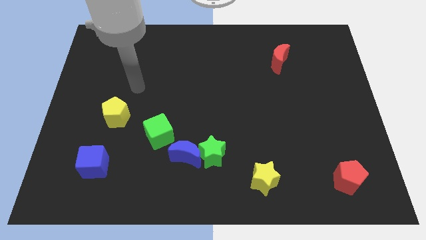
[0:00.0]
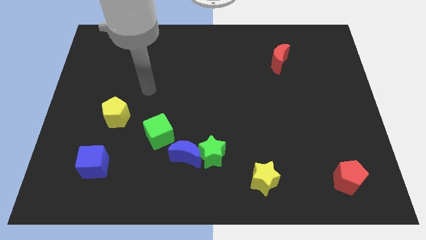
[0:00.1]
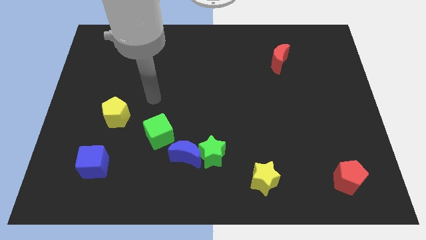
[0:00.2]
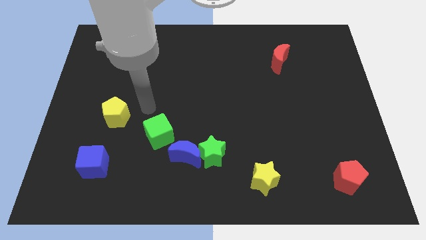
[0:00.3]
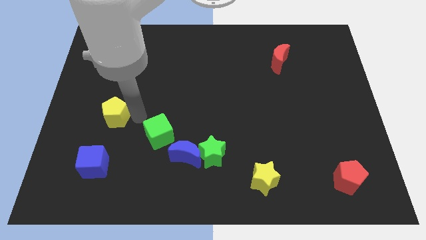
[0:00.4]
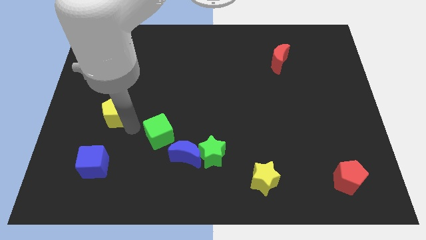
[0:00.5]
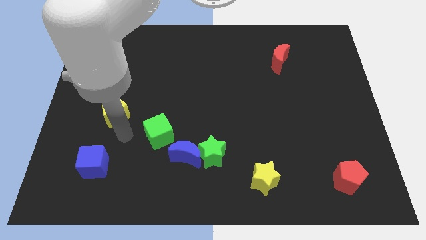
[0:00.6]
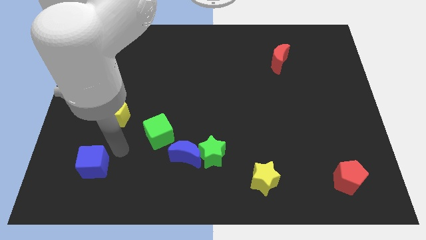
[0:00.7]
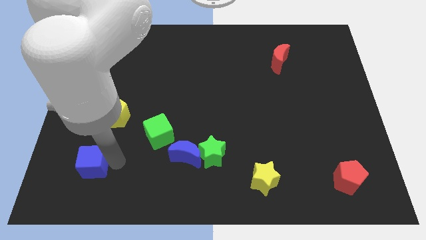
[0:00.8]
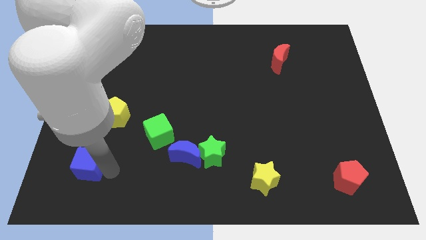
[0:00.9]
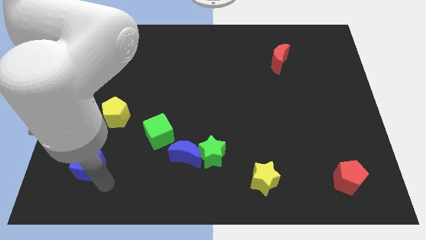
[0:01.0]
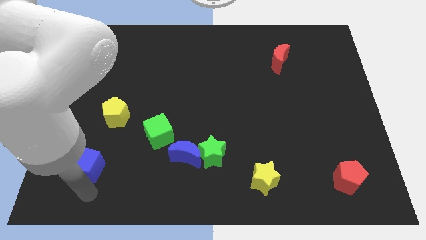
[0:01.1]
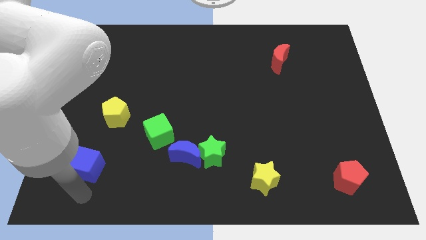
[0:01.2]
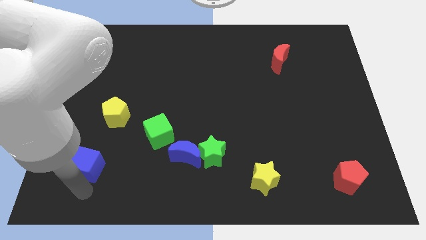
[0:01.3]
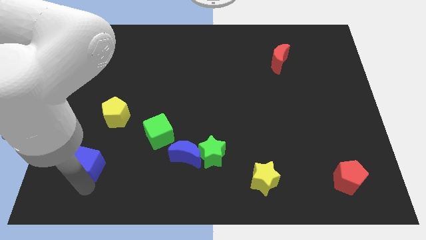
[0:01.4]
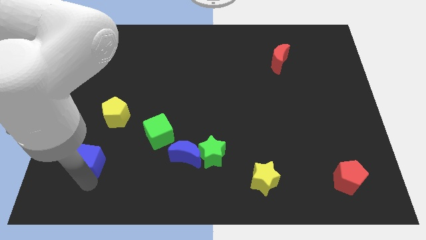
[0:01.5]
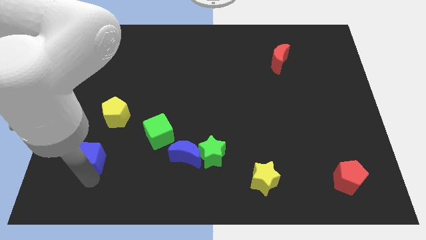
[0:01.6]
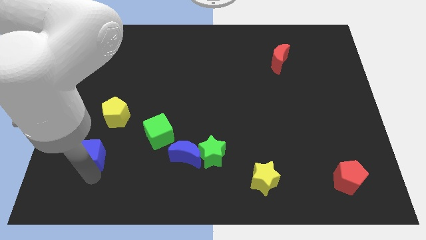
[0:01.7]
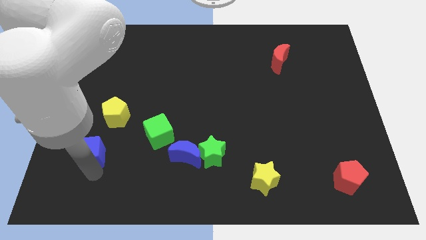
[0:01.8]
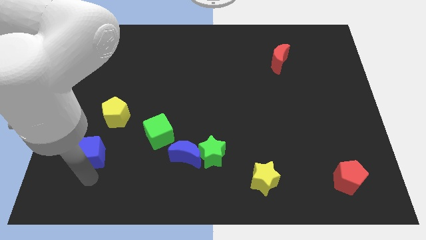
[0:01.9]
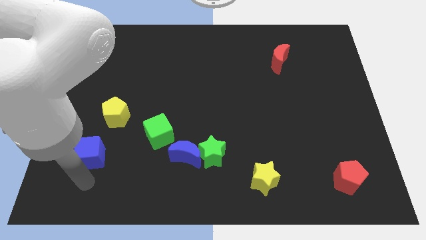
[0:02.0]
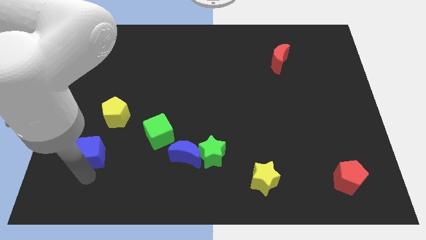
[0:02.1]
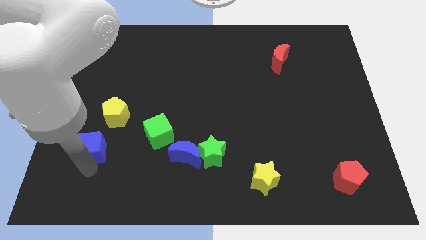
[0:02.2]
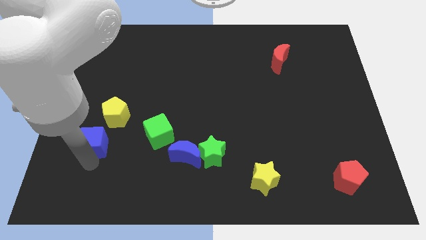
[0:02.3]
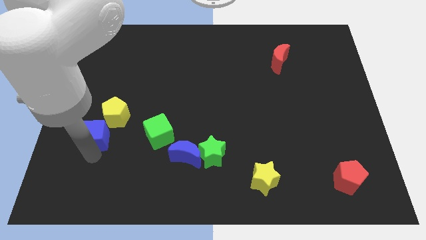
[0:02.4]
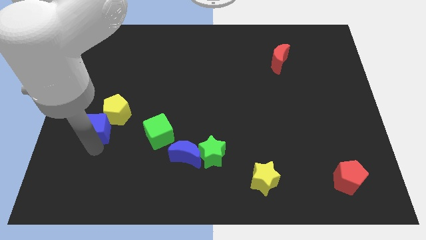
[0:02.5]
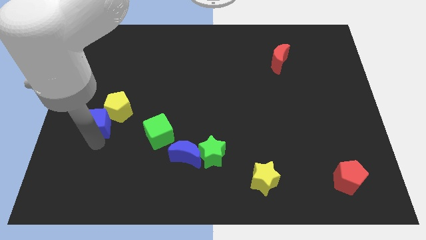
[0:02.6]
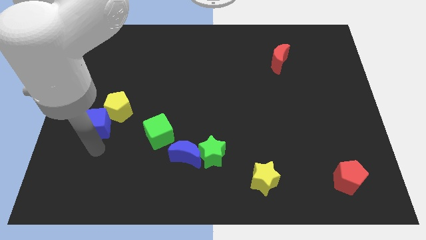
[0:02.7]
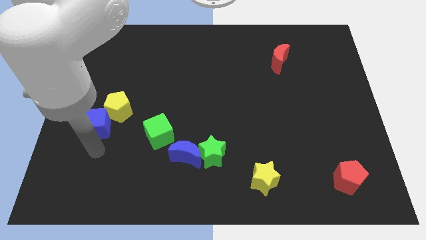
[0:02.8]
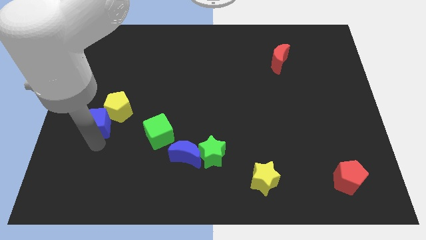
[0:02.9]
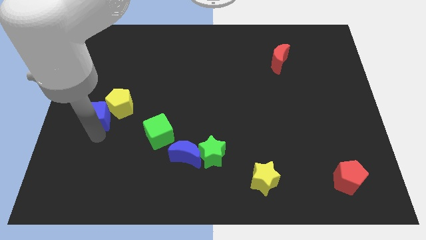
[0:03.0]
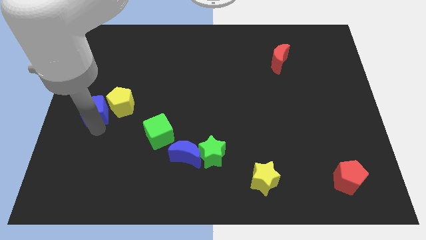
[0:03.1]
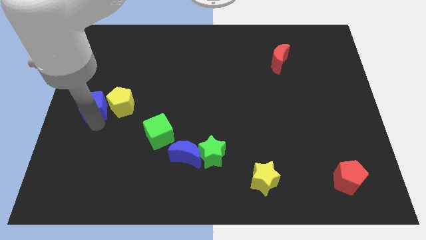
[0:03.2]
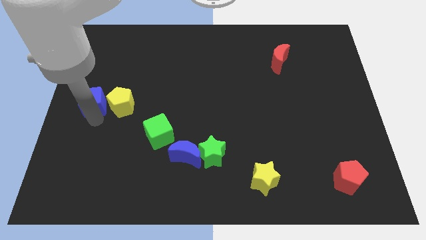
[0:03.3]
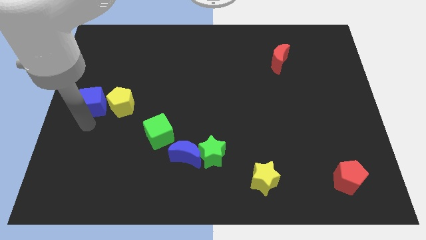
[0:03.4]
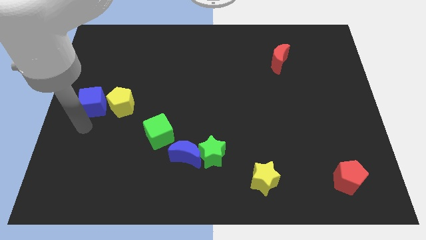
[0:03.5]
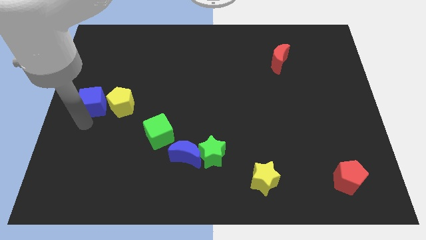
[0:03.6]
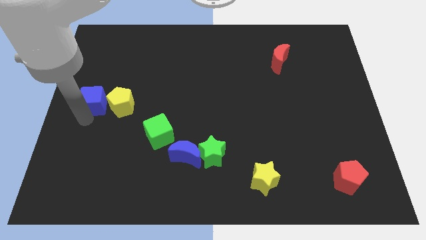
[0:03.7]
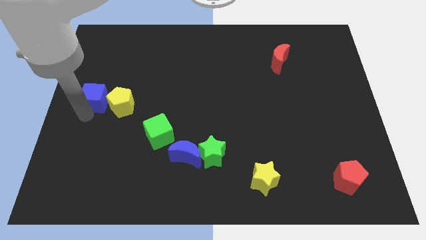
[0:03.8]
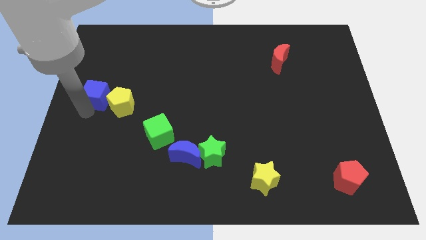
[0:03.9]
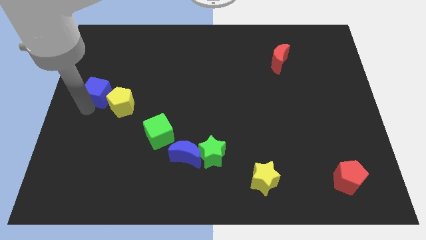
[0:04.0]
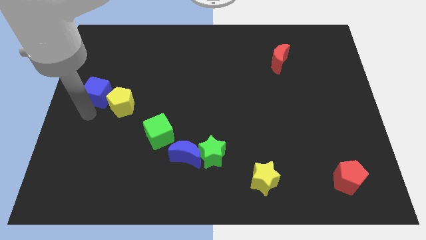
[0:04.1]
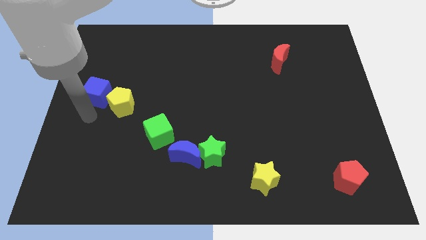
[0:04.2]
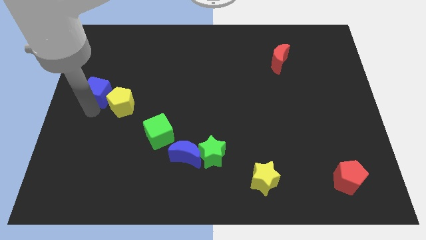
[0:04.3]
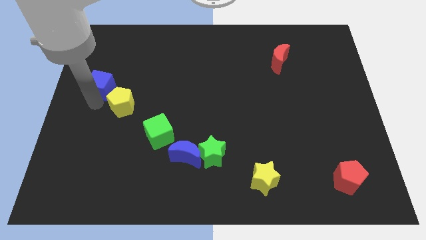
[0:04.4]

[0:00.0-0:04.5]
slide the blue cube upwards

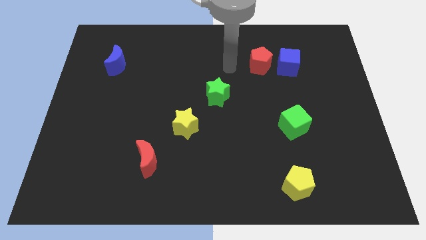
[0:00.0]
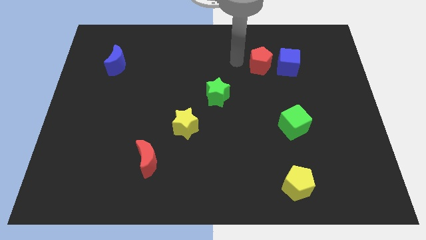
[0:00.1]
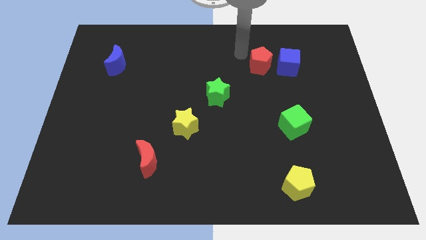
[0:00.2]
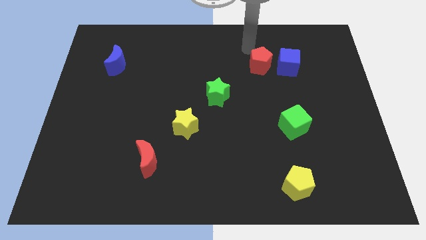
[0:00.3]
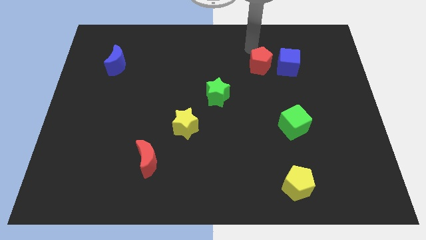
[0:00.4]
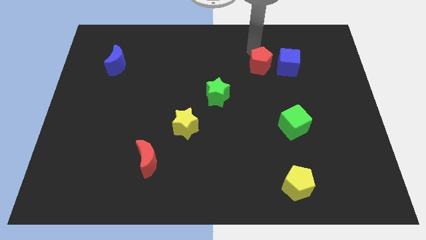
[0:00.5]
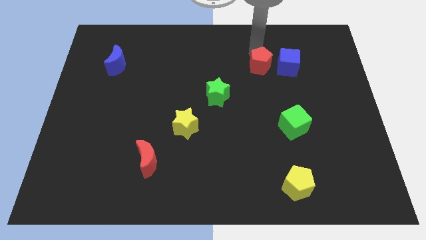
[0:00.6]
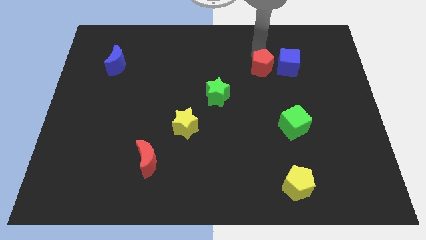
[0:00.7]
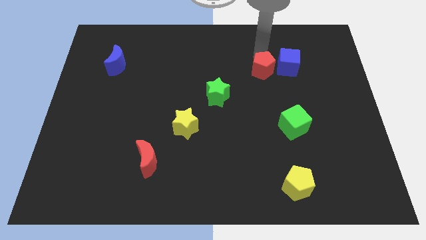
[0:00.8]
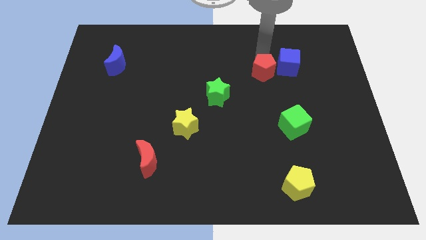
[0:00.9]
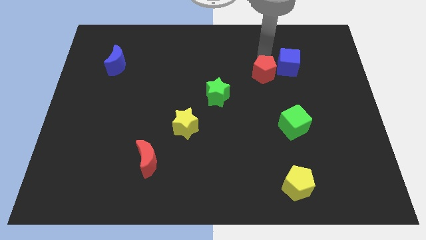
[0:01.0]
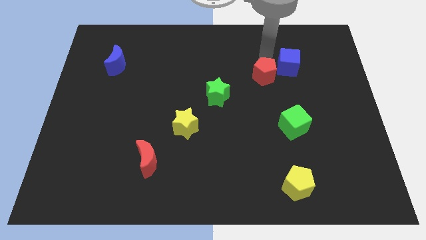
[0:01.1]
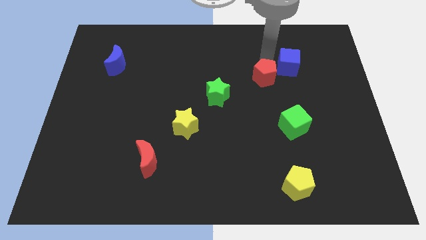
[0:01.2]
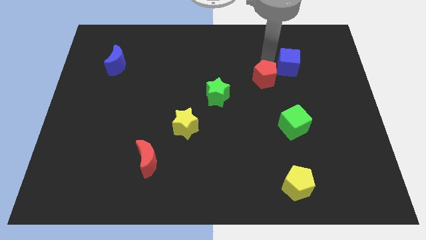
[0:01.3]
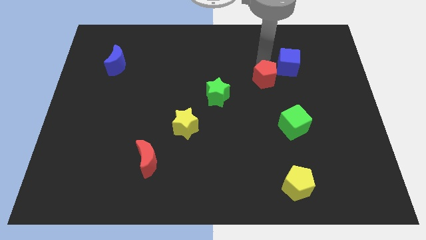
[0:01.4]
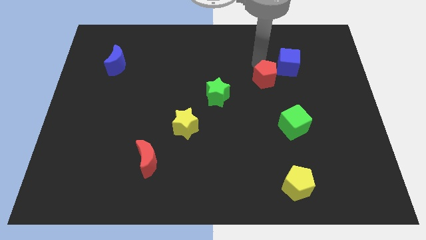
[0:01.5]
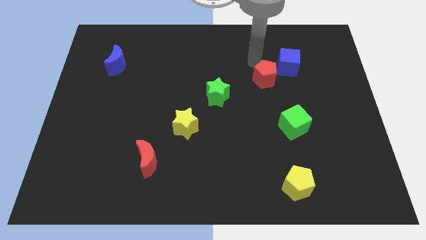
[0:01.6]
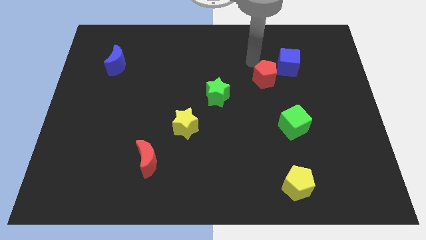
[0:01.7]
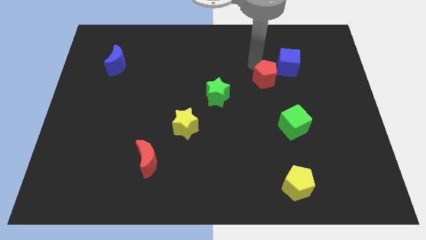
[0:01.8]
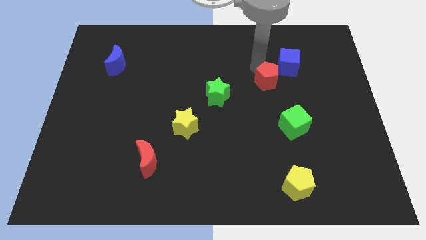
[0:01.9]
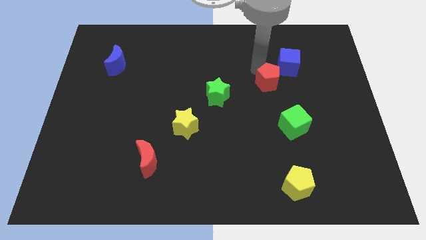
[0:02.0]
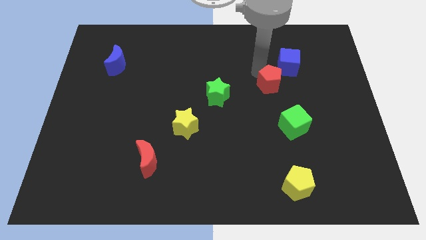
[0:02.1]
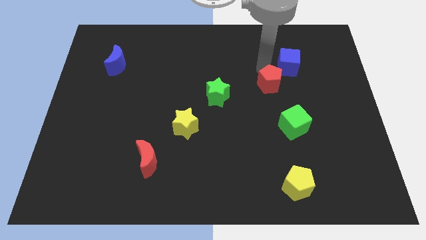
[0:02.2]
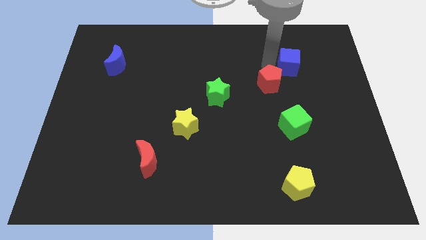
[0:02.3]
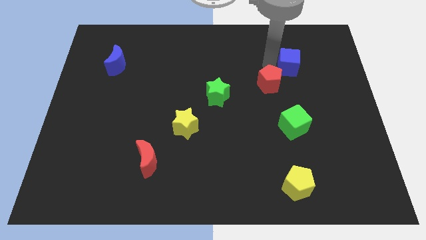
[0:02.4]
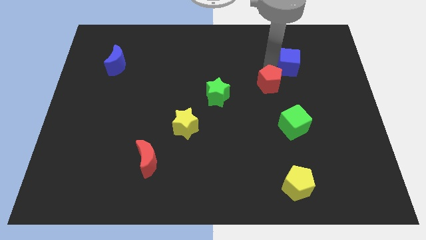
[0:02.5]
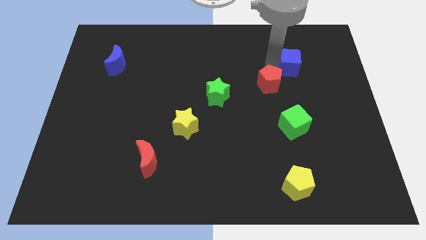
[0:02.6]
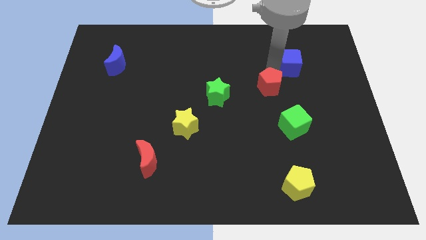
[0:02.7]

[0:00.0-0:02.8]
push the red pentagon down a bit

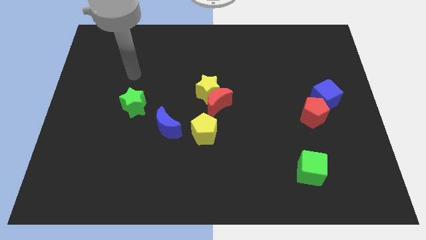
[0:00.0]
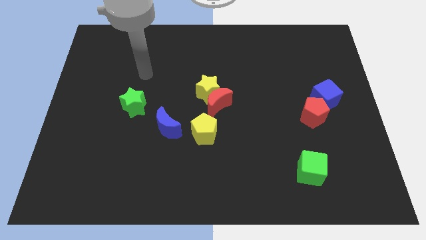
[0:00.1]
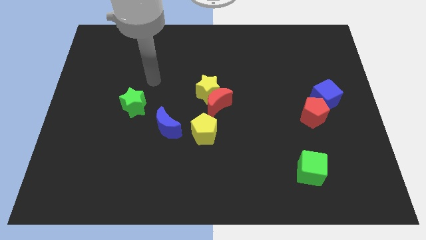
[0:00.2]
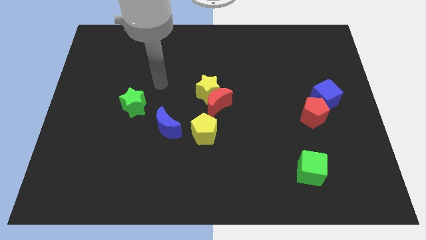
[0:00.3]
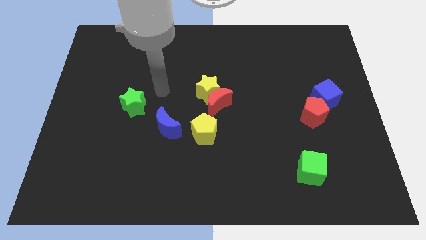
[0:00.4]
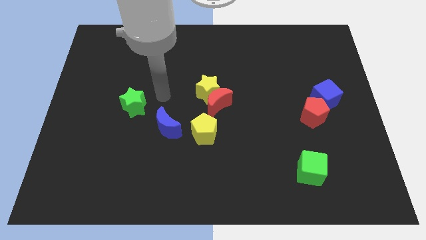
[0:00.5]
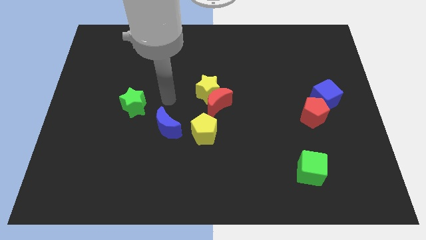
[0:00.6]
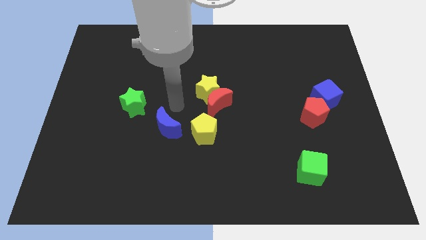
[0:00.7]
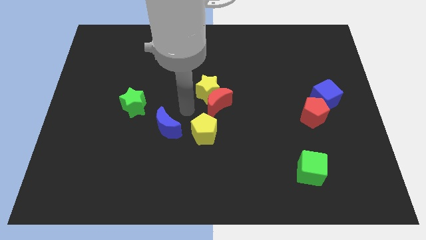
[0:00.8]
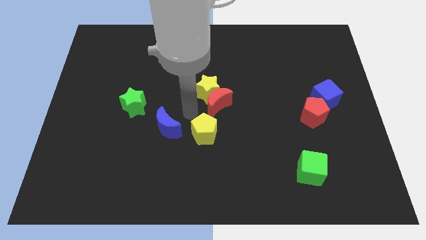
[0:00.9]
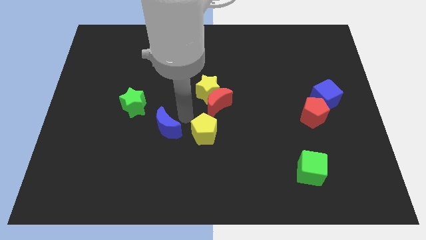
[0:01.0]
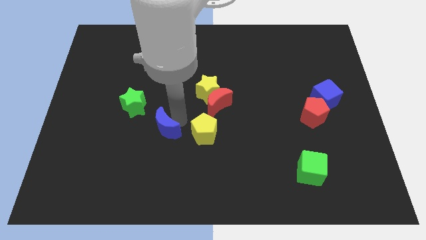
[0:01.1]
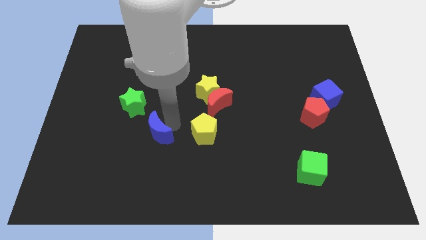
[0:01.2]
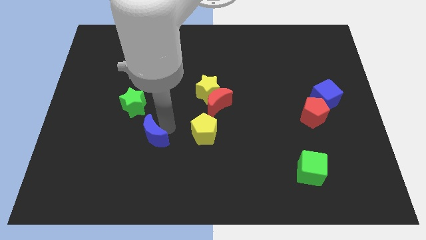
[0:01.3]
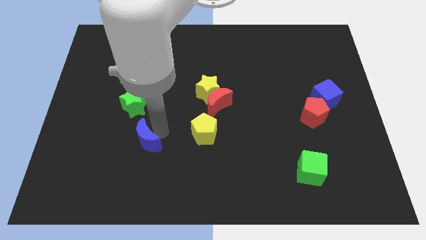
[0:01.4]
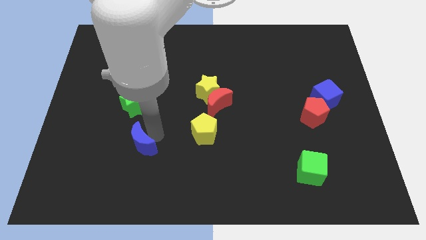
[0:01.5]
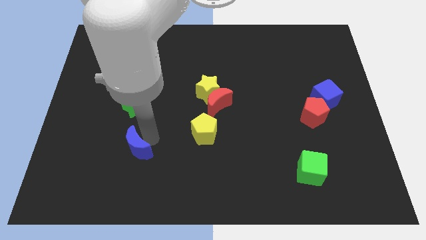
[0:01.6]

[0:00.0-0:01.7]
move the blue moon diagonally downwards and to the left a bit
